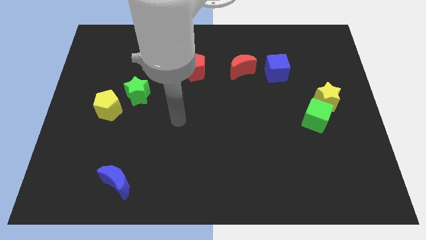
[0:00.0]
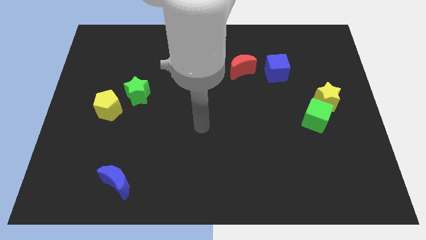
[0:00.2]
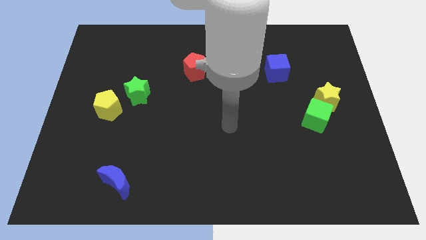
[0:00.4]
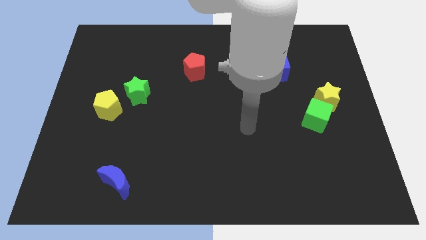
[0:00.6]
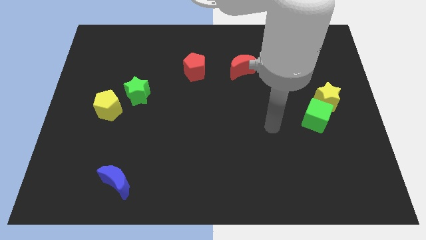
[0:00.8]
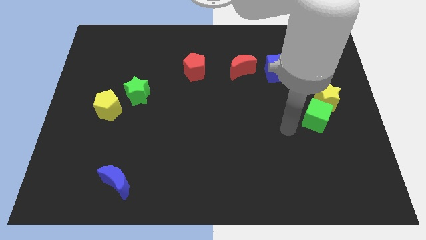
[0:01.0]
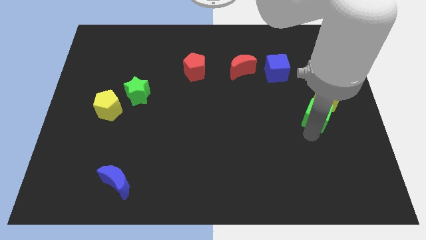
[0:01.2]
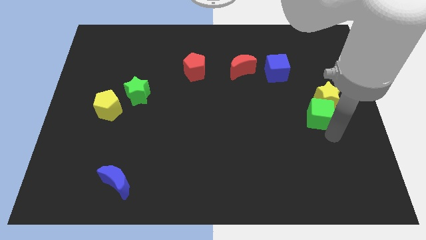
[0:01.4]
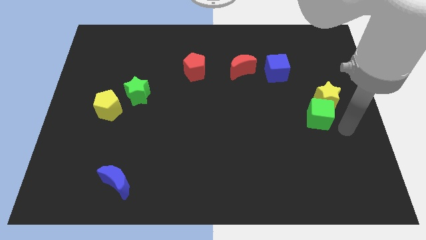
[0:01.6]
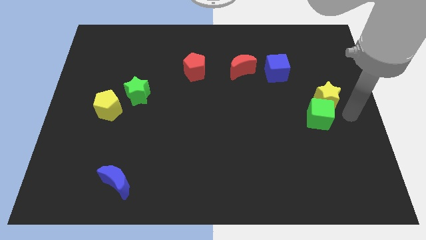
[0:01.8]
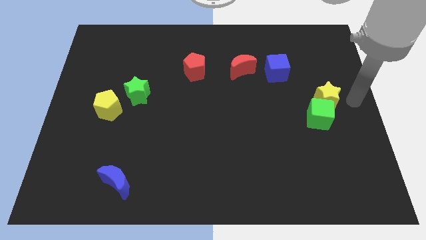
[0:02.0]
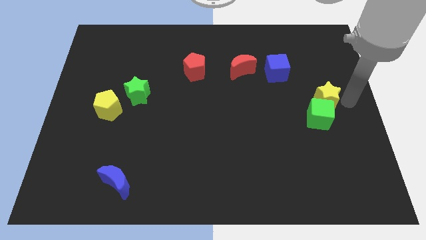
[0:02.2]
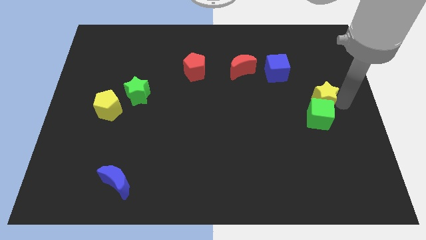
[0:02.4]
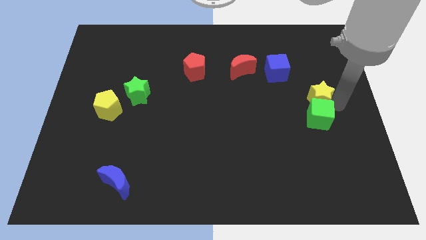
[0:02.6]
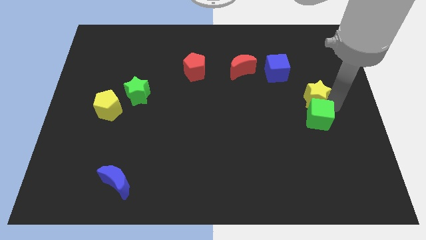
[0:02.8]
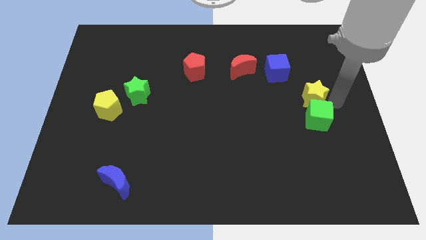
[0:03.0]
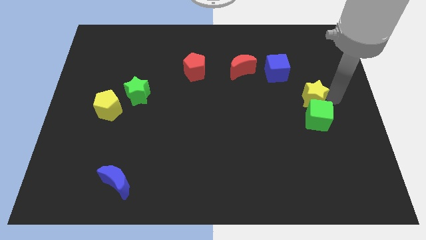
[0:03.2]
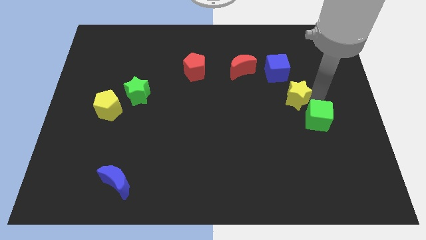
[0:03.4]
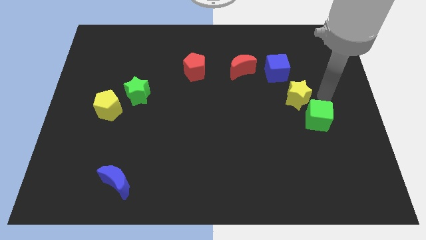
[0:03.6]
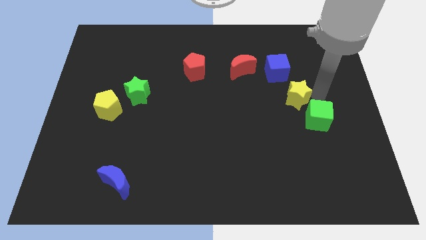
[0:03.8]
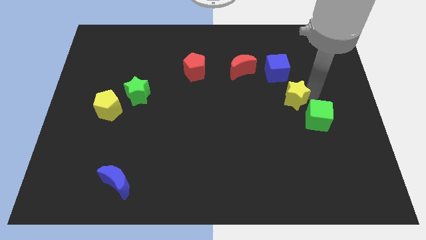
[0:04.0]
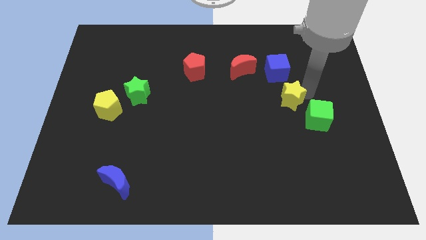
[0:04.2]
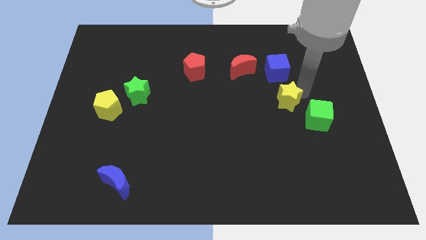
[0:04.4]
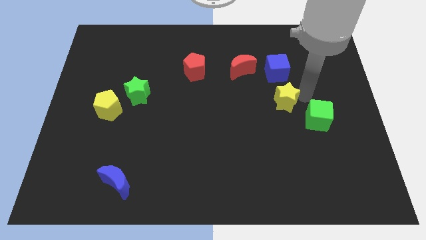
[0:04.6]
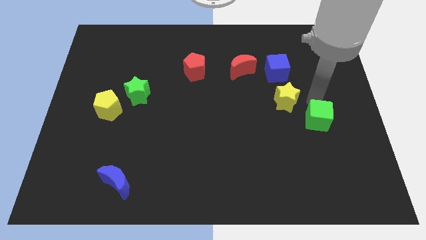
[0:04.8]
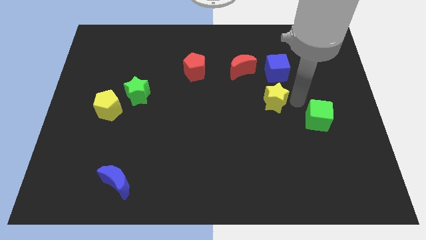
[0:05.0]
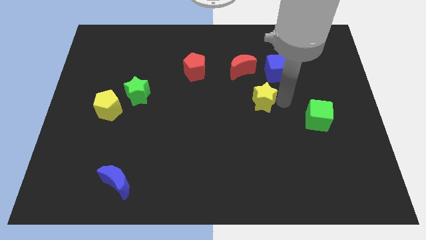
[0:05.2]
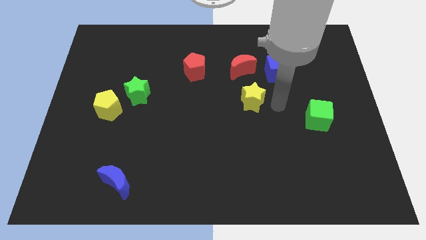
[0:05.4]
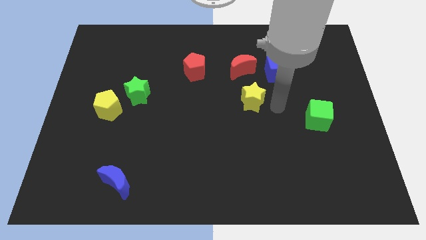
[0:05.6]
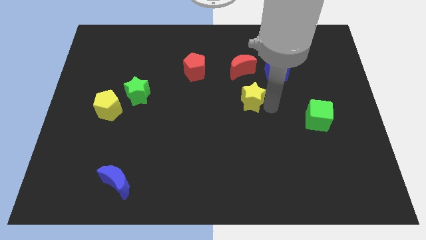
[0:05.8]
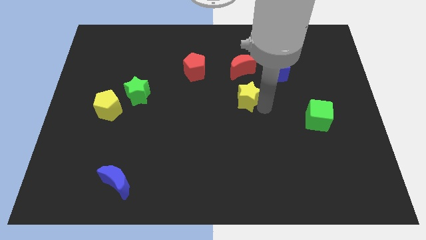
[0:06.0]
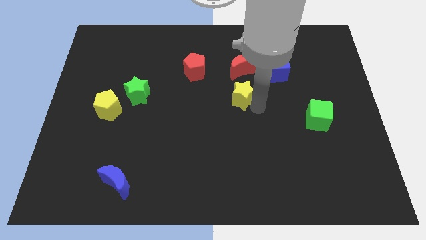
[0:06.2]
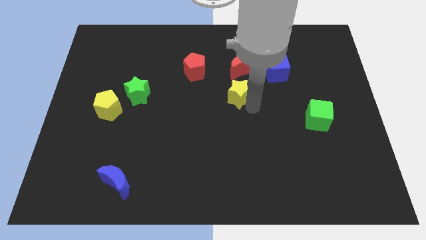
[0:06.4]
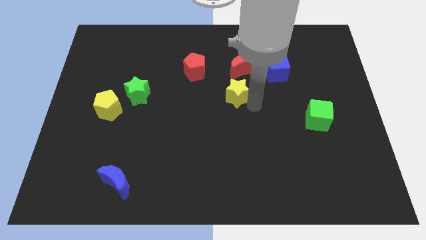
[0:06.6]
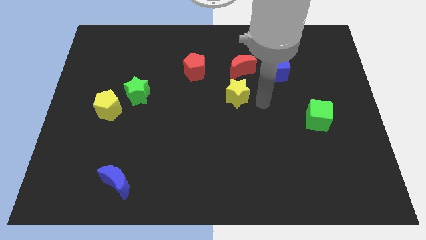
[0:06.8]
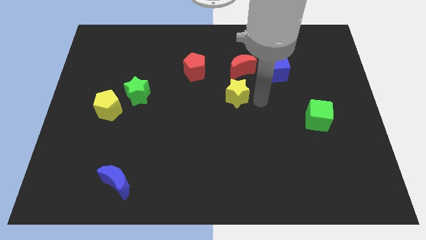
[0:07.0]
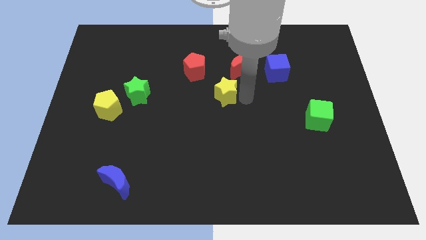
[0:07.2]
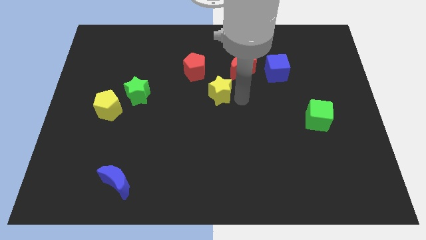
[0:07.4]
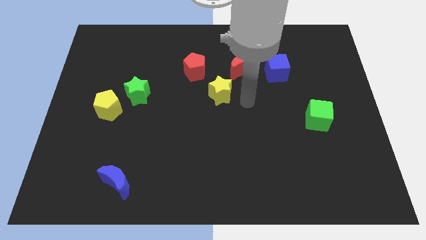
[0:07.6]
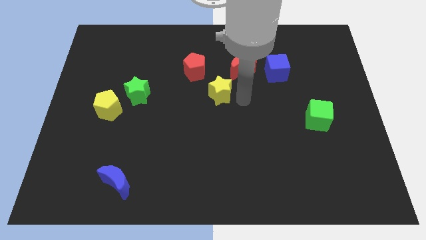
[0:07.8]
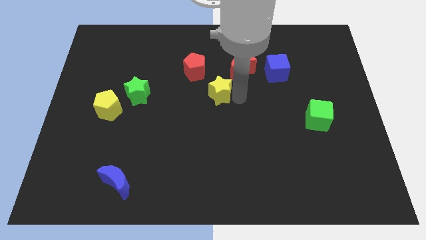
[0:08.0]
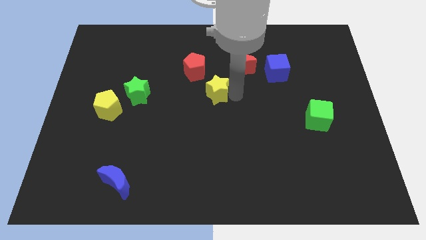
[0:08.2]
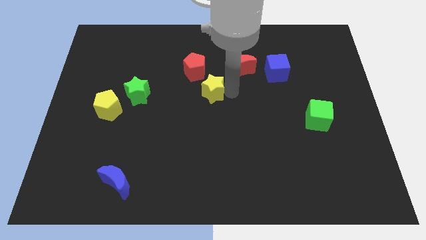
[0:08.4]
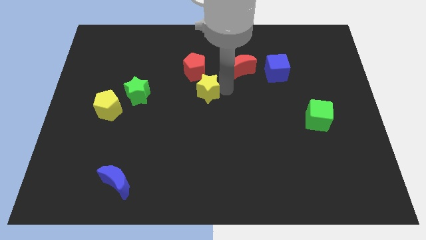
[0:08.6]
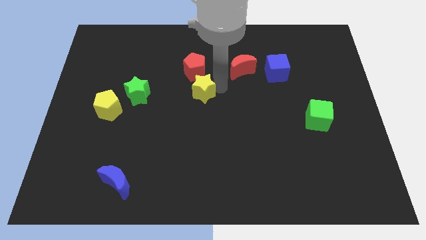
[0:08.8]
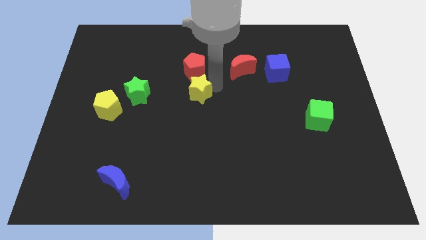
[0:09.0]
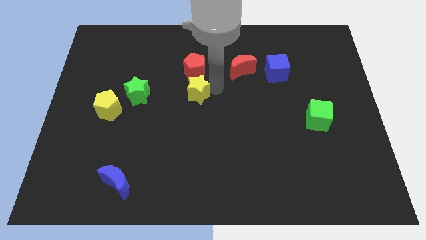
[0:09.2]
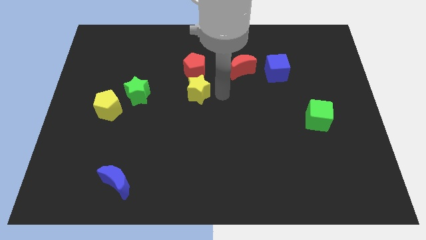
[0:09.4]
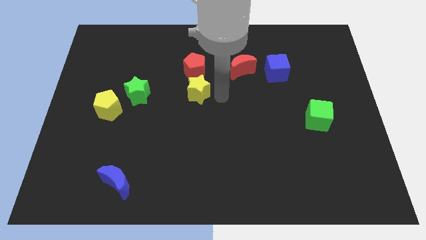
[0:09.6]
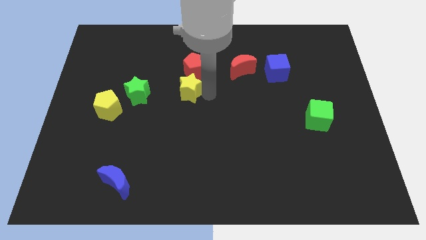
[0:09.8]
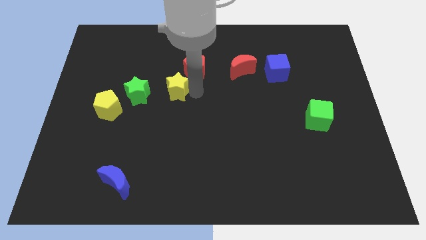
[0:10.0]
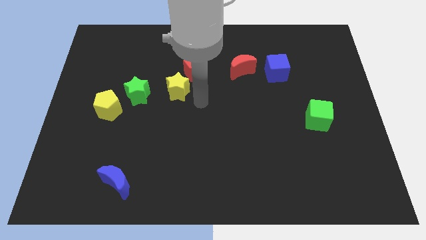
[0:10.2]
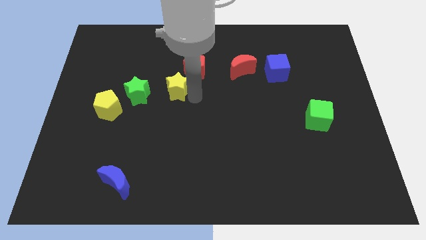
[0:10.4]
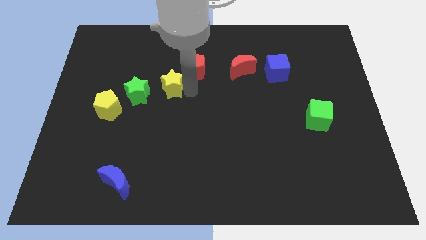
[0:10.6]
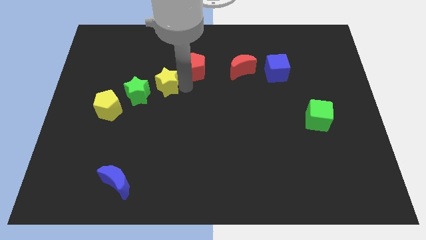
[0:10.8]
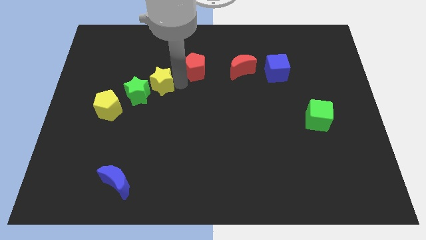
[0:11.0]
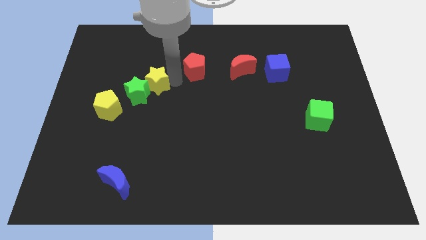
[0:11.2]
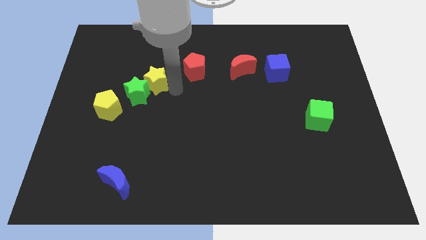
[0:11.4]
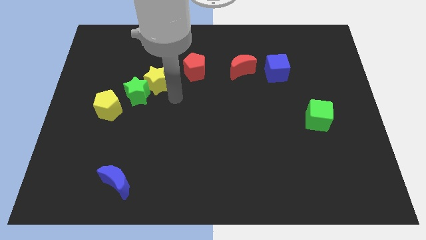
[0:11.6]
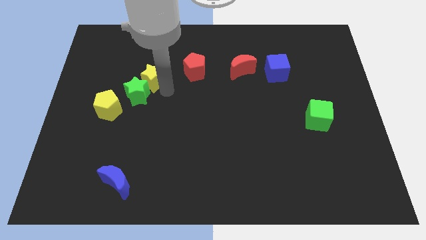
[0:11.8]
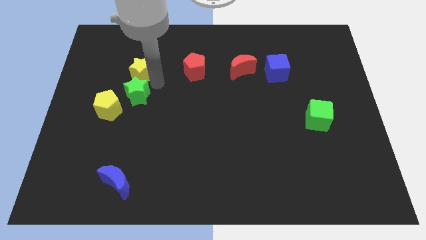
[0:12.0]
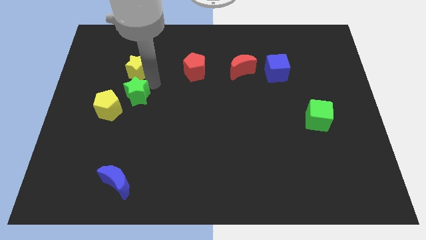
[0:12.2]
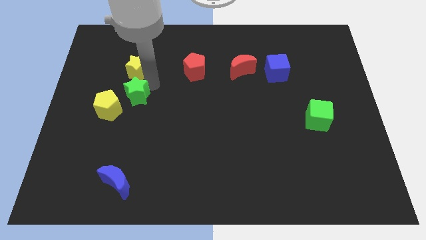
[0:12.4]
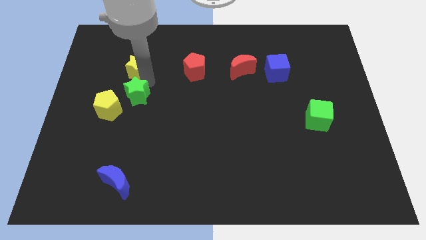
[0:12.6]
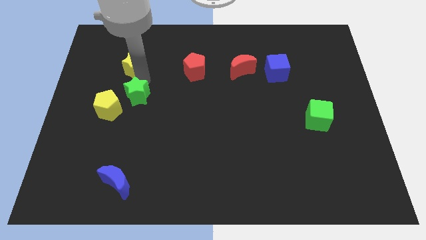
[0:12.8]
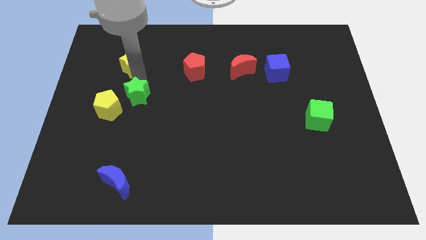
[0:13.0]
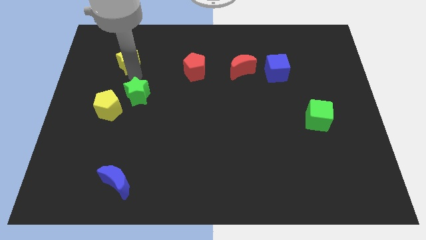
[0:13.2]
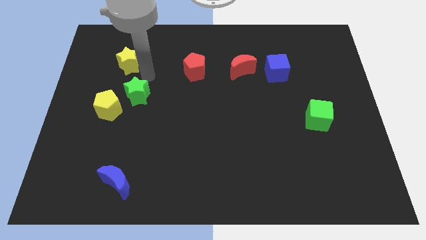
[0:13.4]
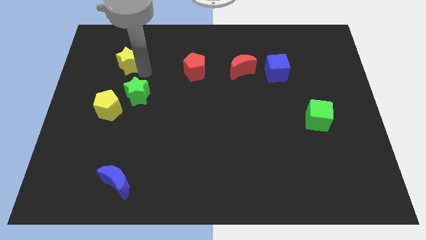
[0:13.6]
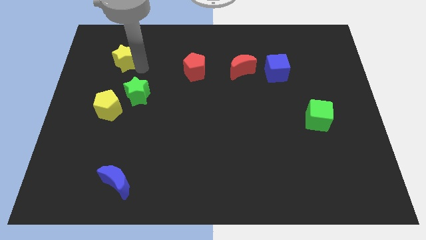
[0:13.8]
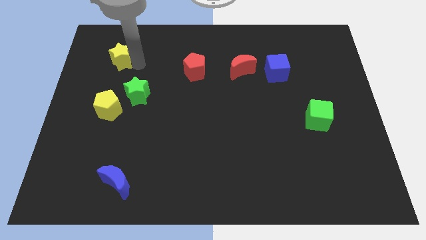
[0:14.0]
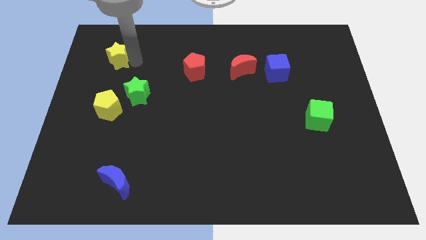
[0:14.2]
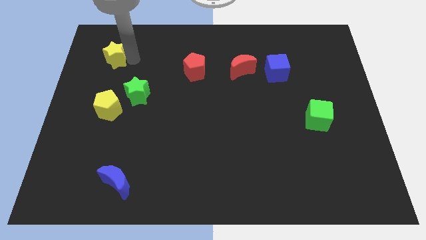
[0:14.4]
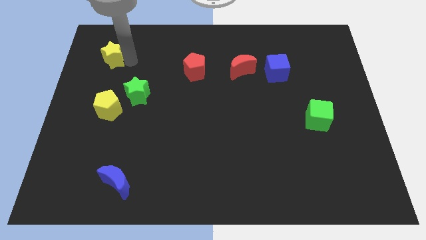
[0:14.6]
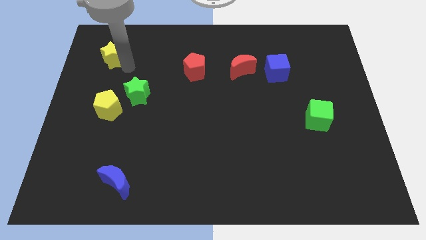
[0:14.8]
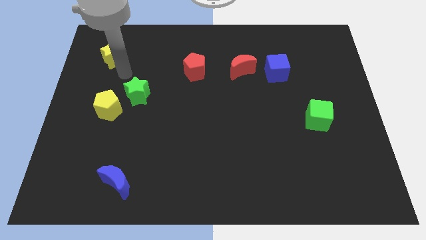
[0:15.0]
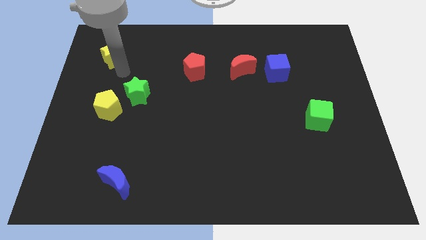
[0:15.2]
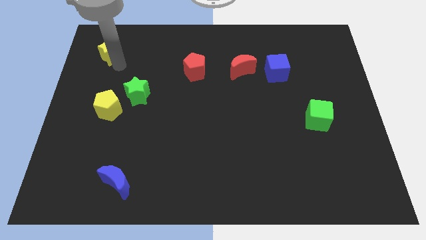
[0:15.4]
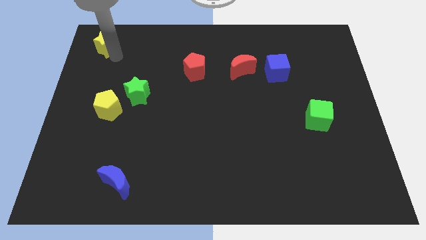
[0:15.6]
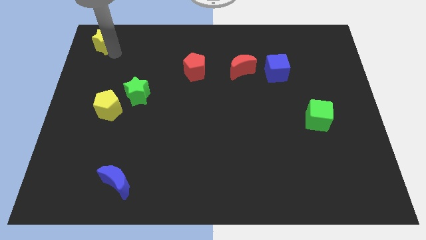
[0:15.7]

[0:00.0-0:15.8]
move the yellow star to the top left corner

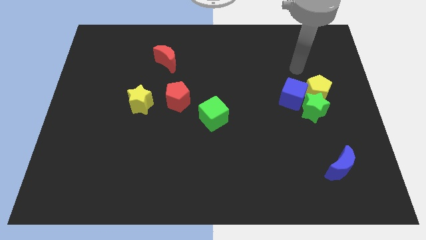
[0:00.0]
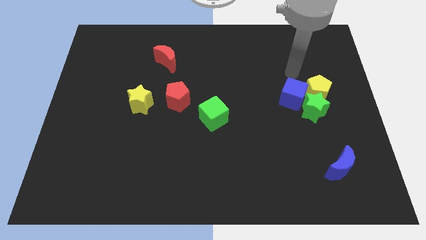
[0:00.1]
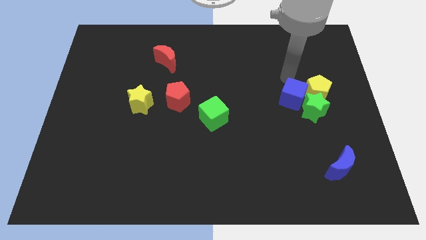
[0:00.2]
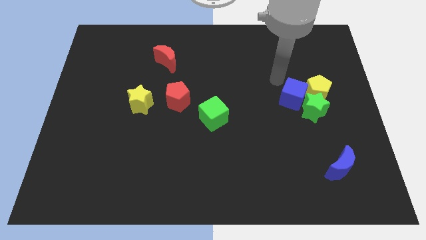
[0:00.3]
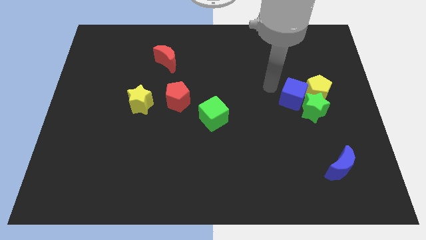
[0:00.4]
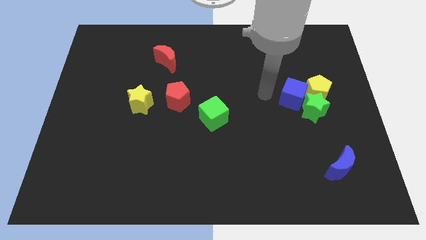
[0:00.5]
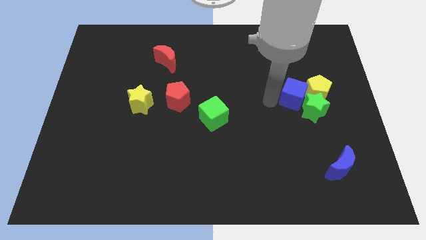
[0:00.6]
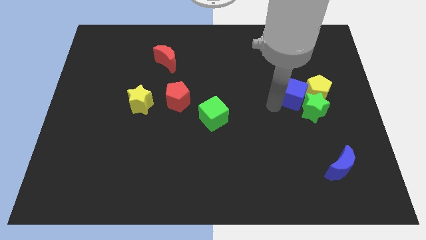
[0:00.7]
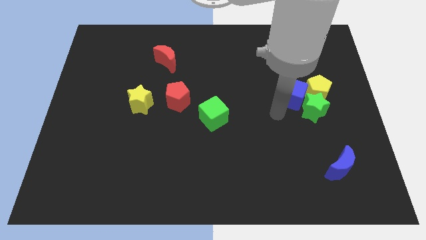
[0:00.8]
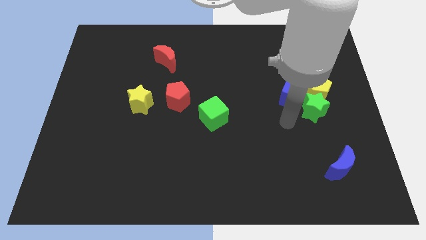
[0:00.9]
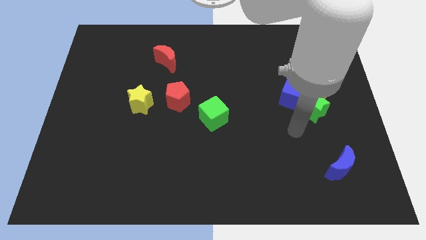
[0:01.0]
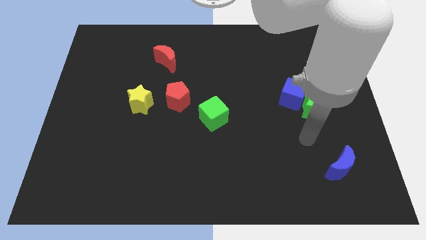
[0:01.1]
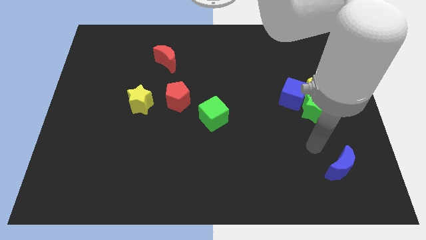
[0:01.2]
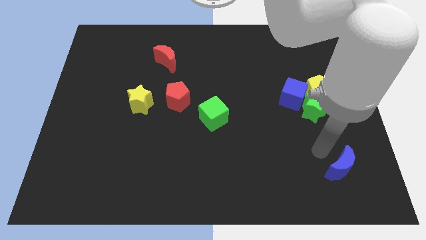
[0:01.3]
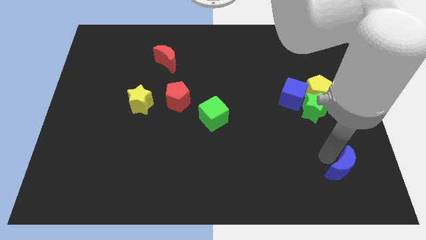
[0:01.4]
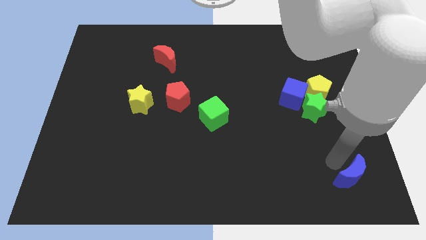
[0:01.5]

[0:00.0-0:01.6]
slide the blue moon to the bottom right of the board
